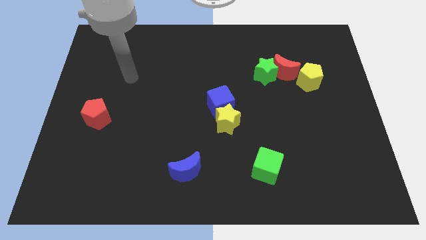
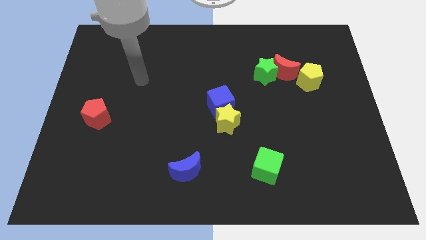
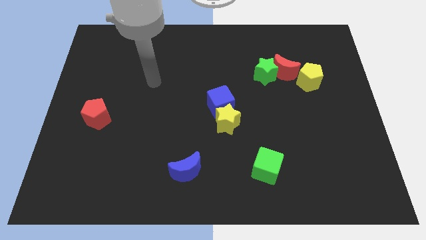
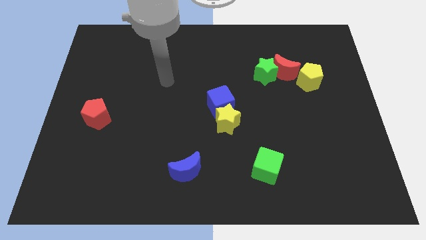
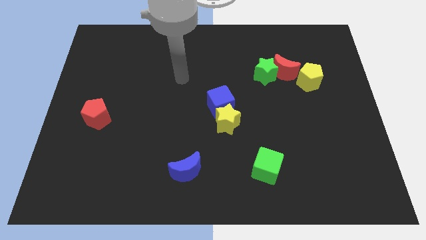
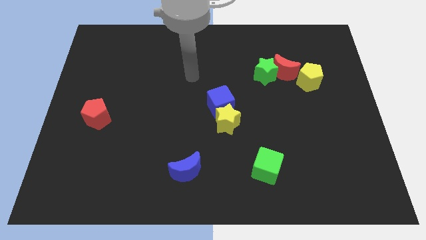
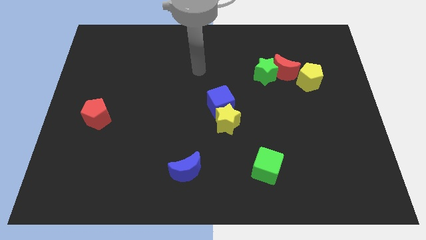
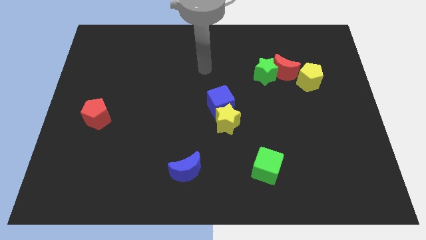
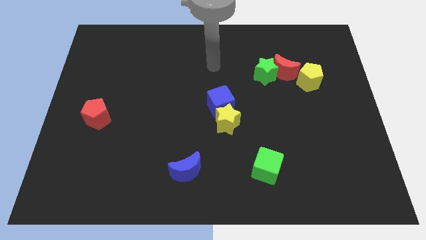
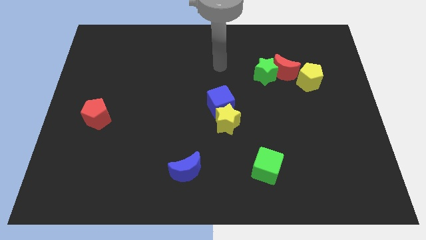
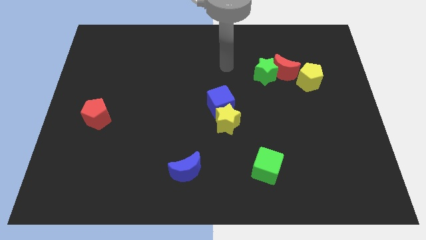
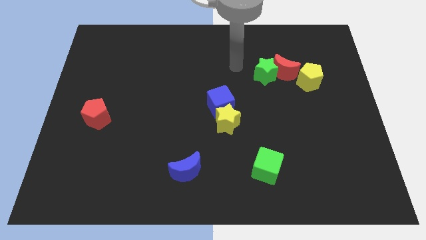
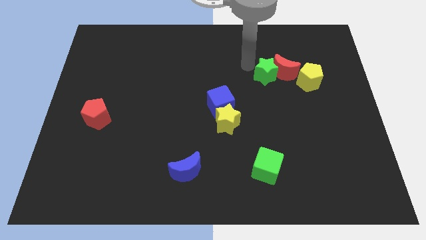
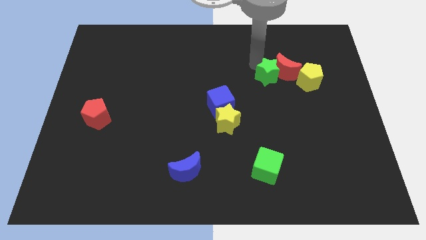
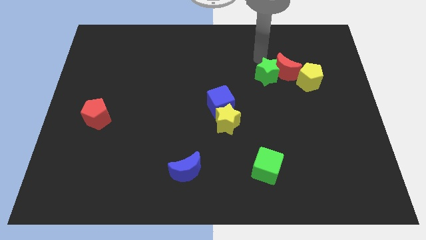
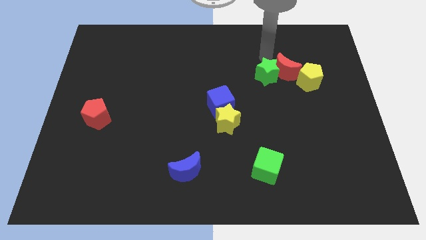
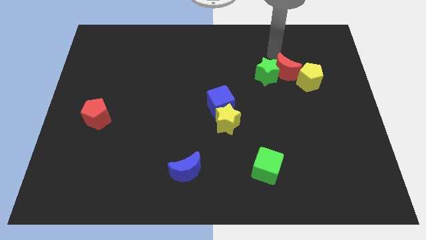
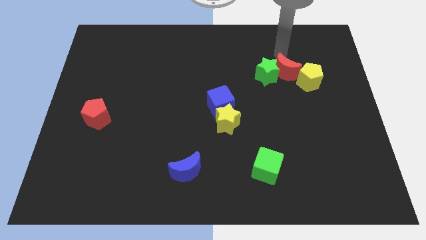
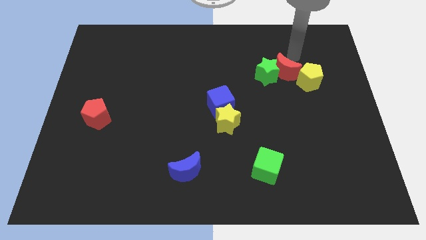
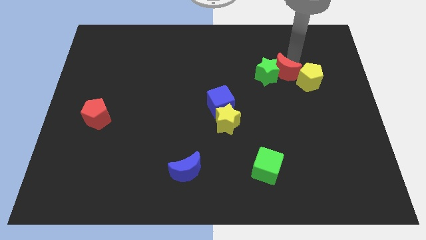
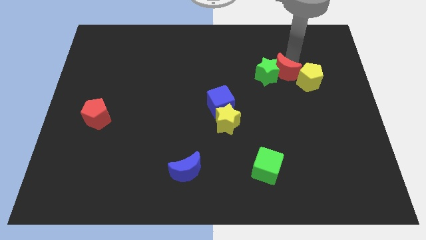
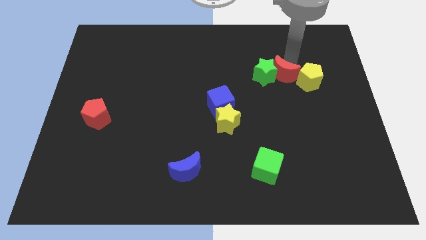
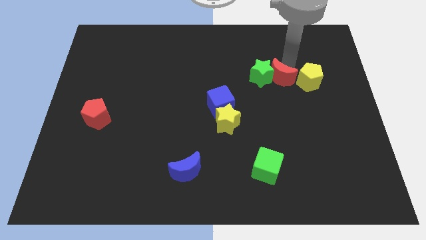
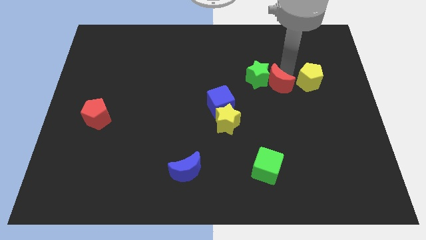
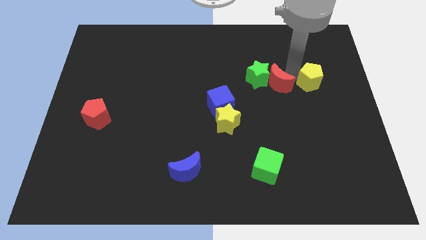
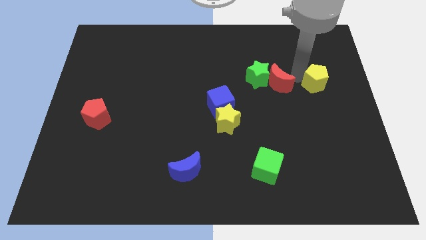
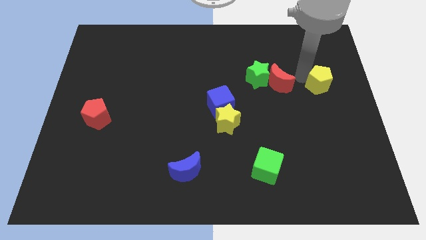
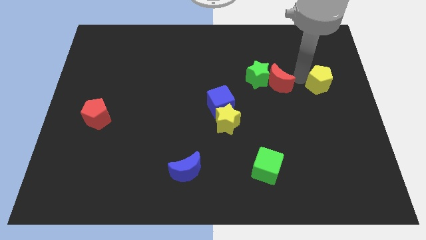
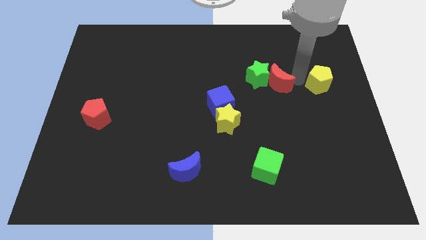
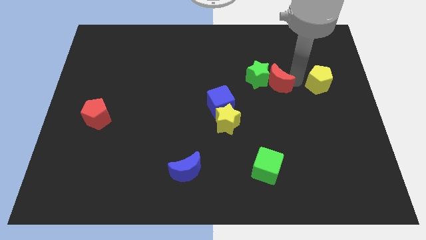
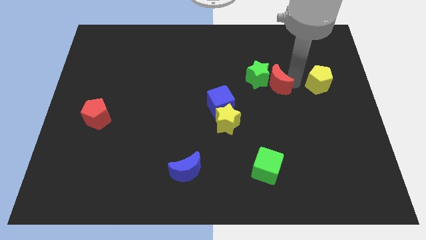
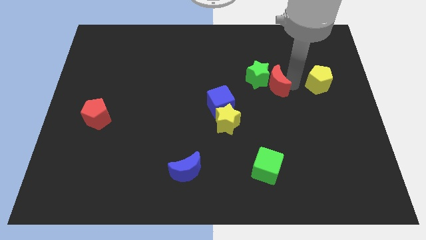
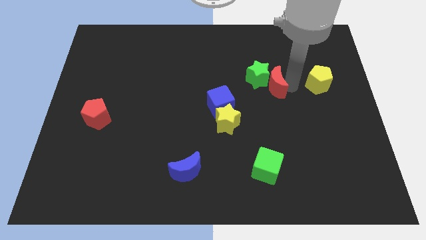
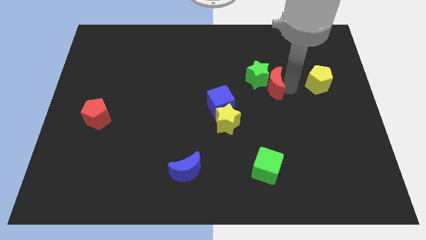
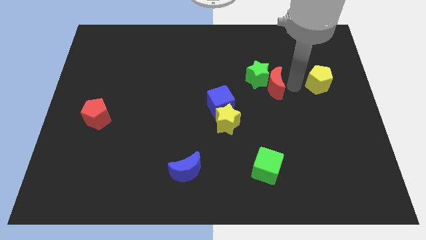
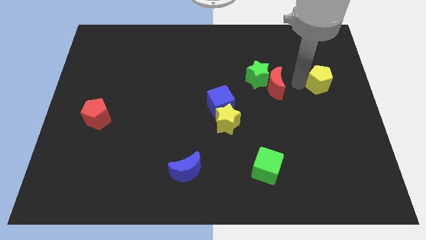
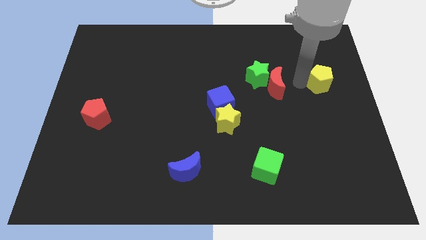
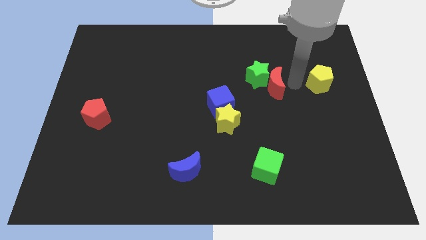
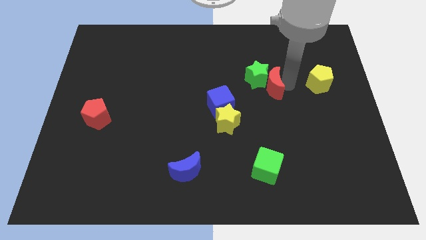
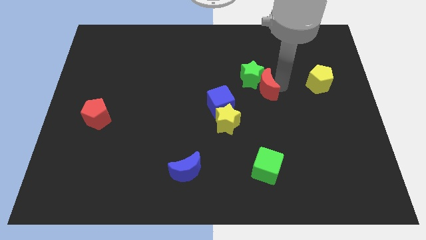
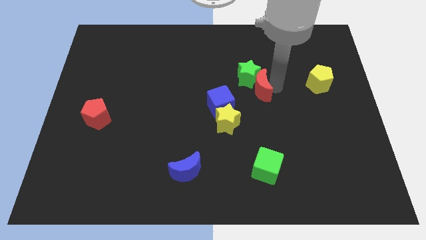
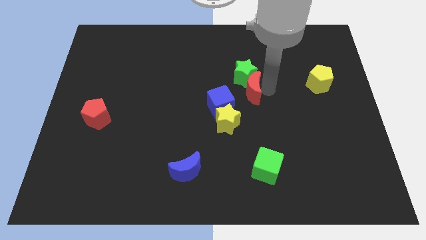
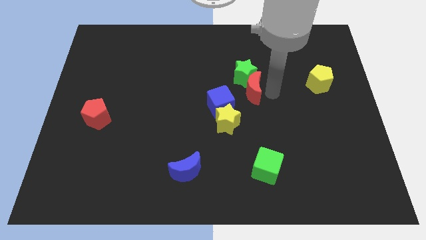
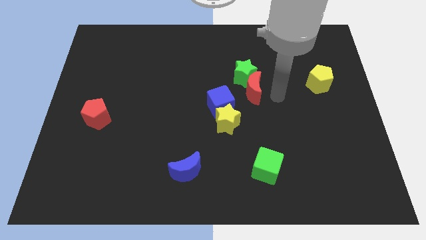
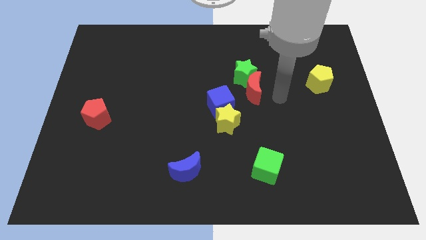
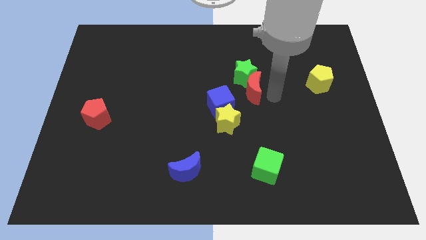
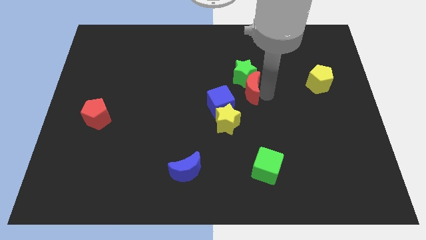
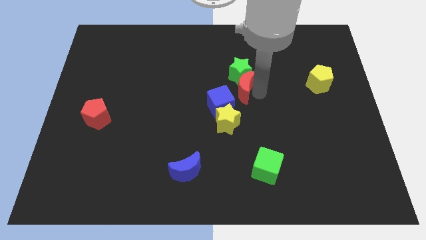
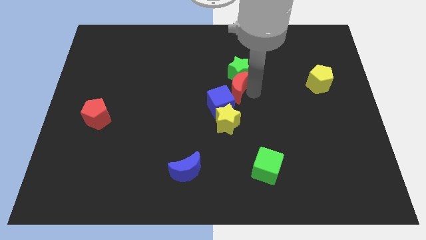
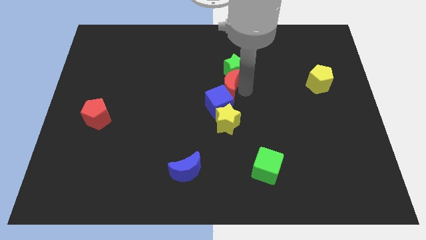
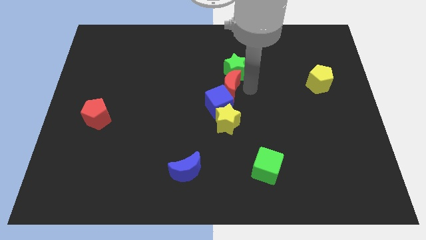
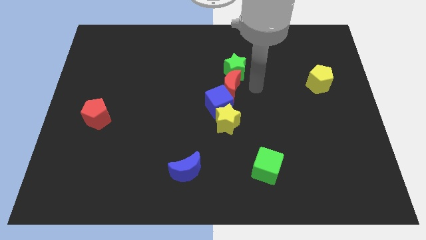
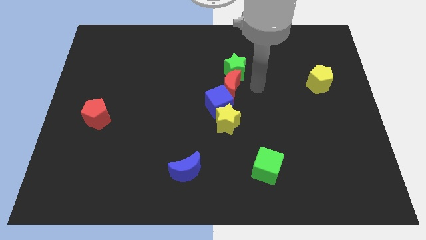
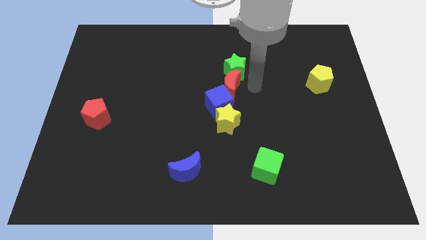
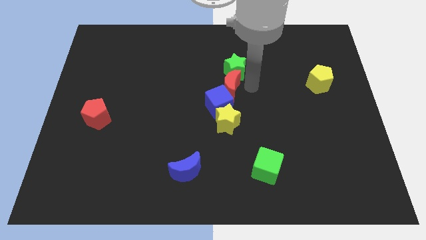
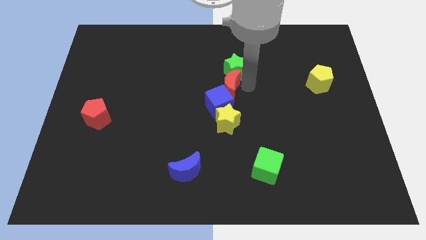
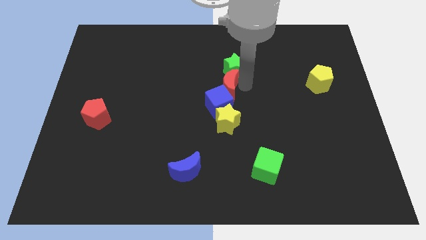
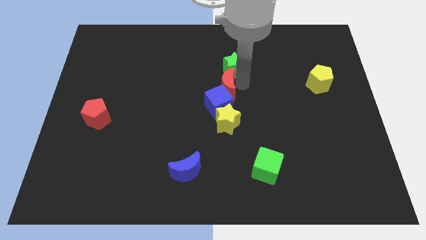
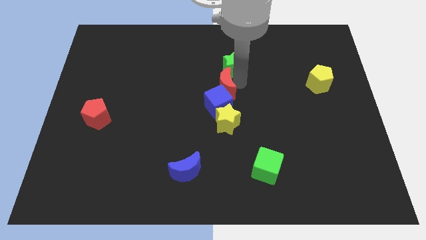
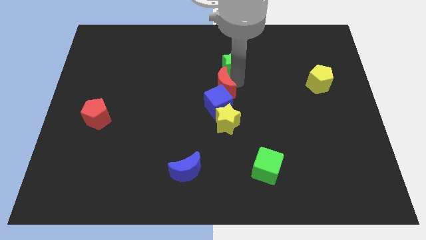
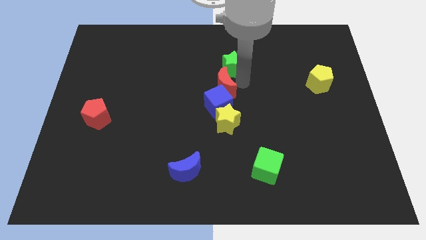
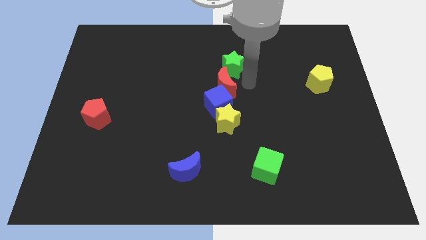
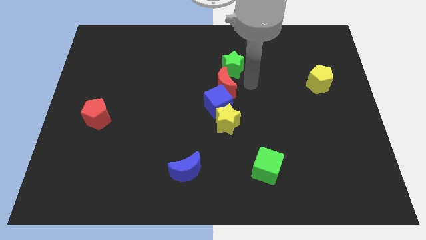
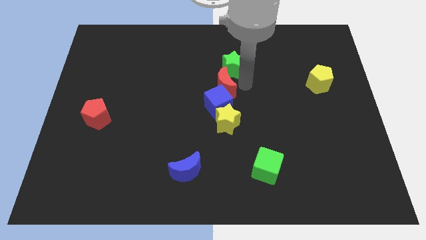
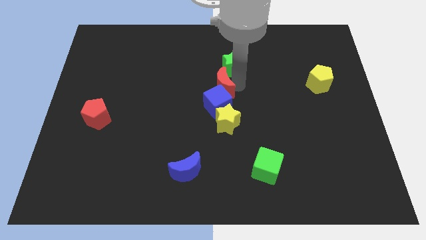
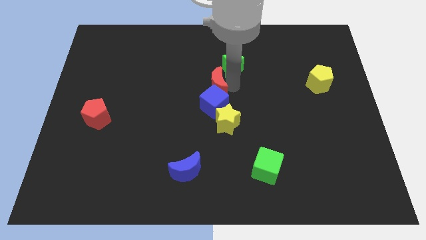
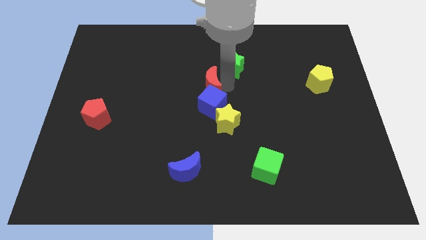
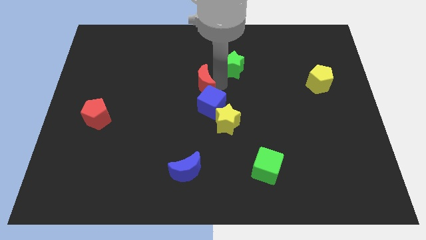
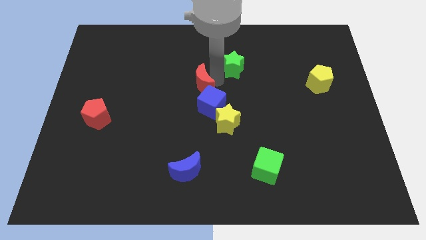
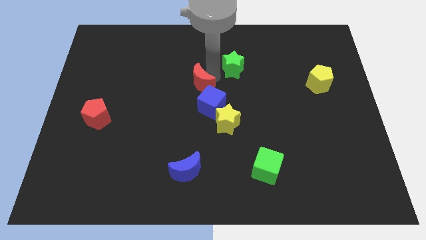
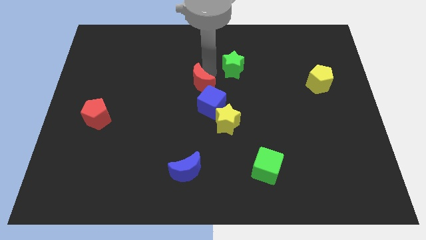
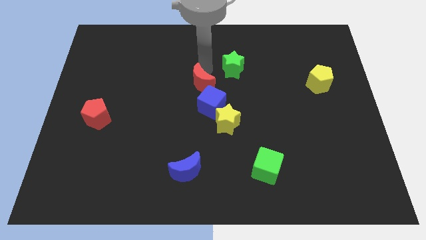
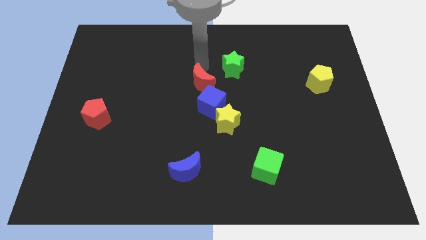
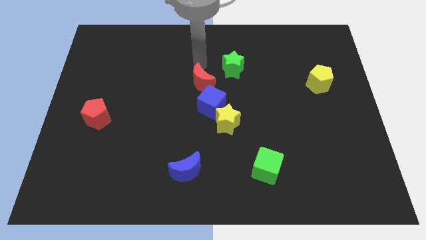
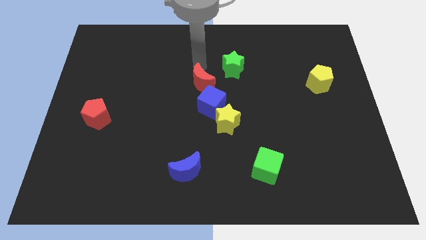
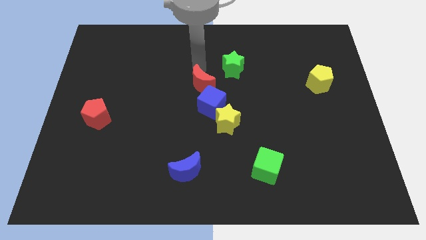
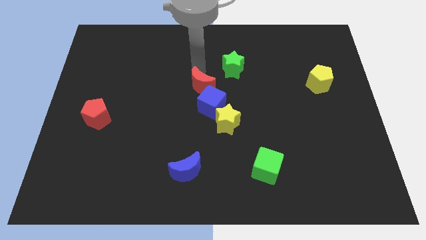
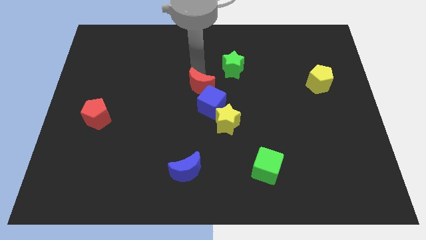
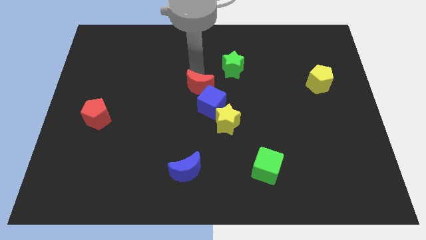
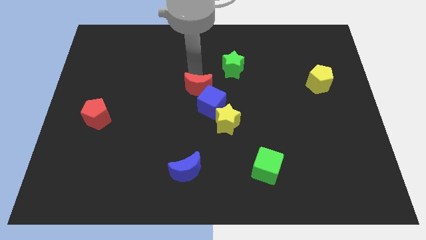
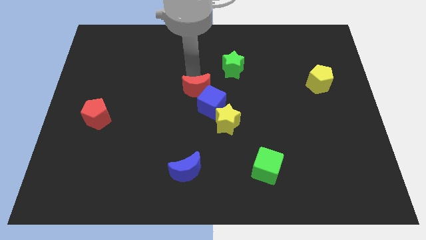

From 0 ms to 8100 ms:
push the red moon to the top left side of the yellow star
